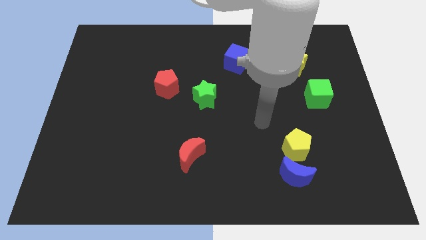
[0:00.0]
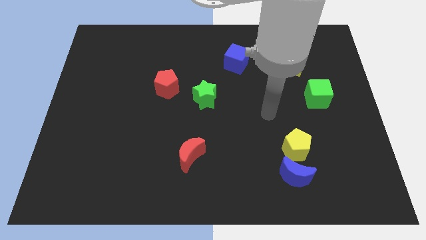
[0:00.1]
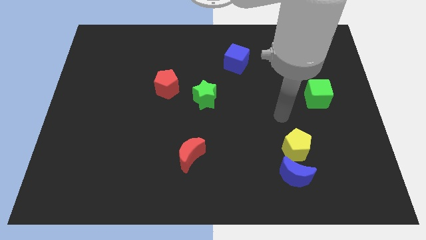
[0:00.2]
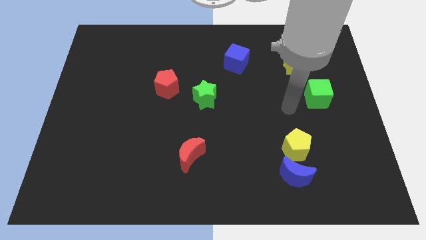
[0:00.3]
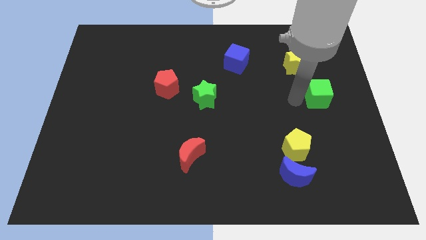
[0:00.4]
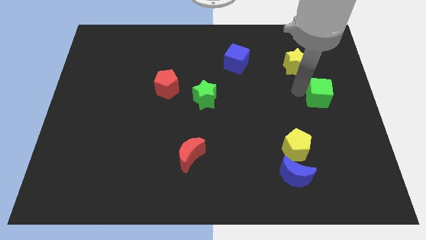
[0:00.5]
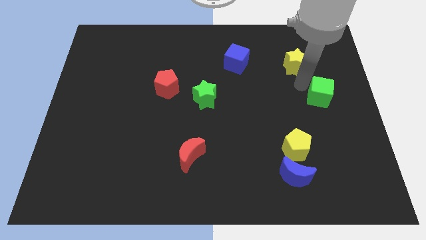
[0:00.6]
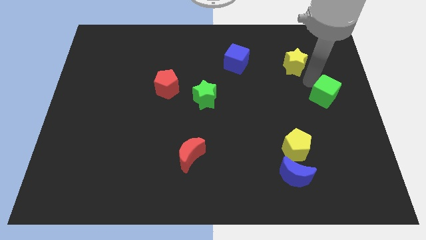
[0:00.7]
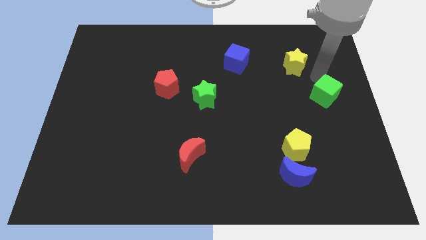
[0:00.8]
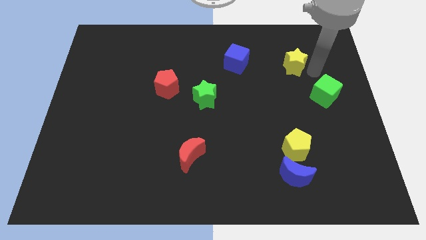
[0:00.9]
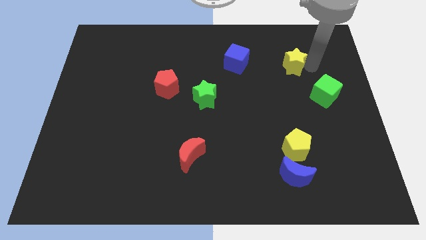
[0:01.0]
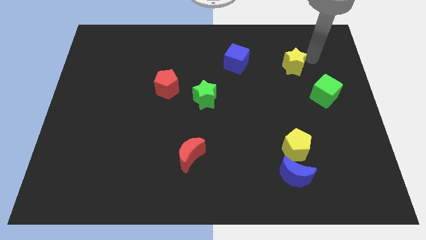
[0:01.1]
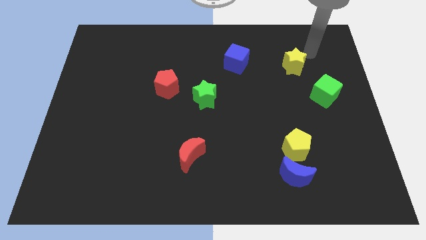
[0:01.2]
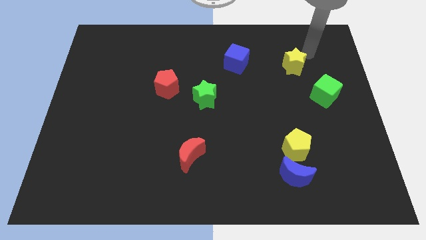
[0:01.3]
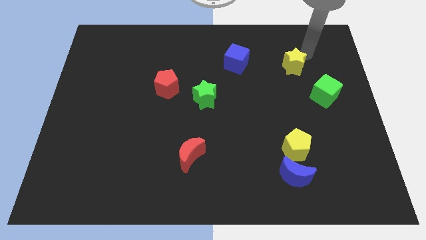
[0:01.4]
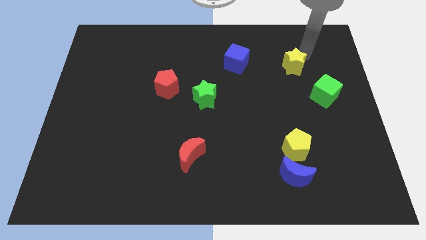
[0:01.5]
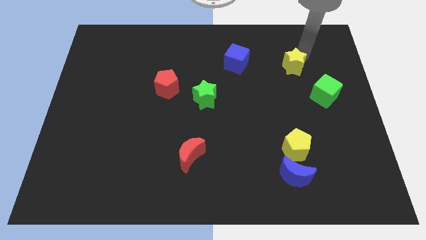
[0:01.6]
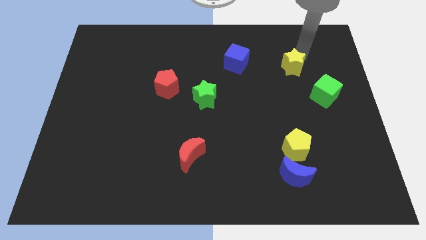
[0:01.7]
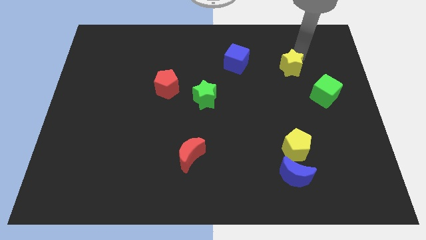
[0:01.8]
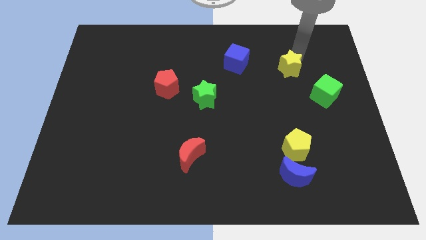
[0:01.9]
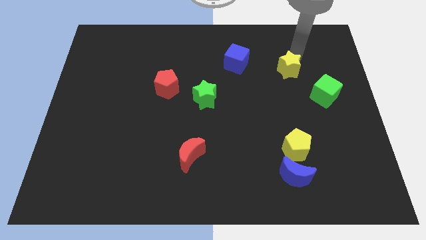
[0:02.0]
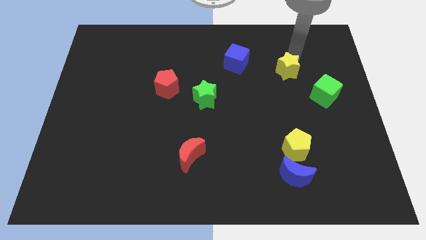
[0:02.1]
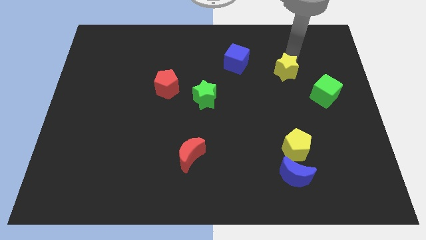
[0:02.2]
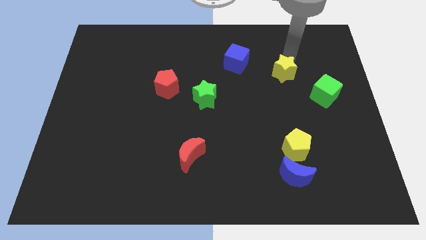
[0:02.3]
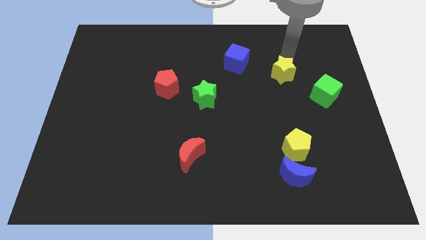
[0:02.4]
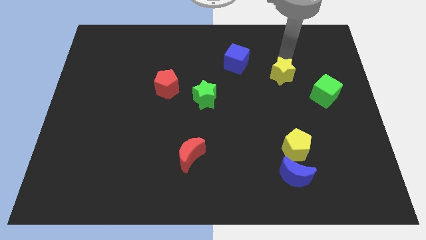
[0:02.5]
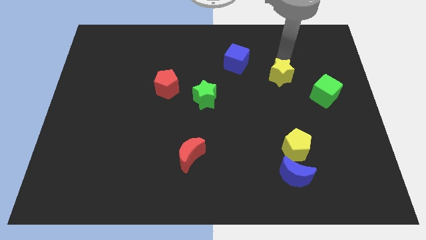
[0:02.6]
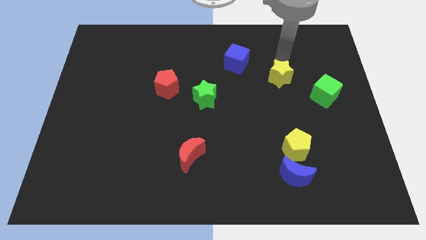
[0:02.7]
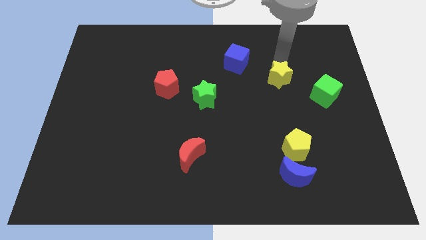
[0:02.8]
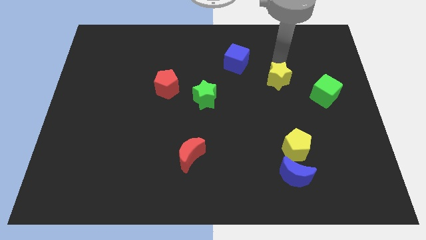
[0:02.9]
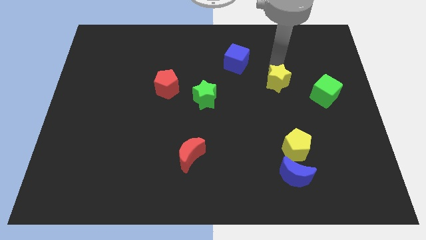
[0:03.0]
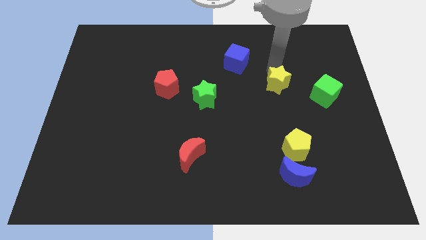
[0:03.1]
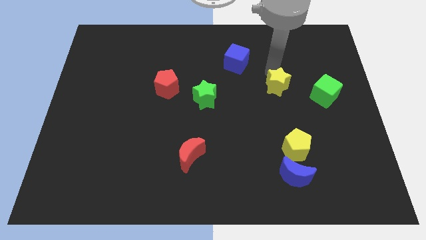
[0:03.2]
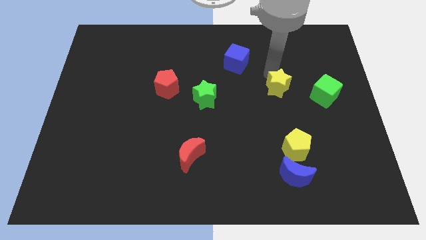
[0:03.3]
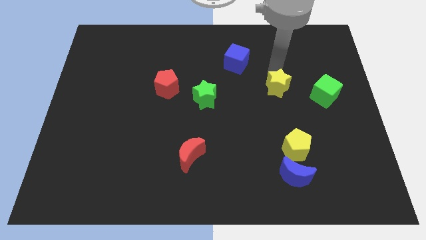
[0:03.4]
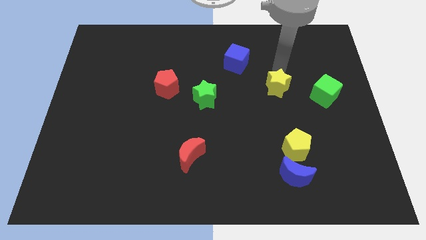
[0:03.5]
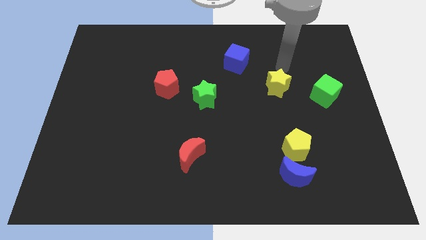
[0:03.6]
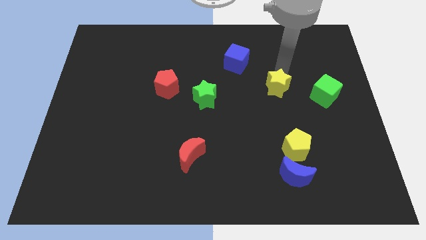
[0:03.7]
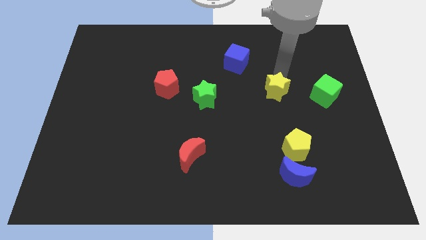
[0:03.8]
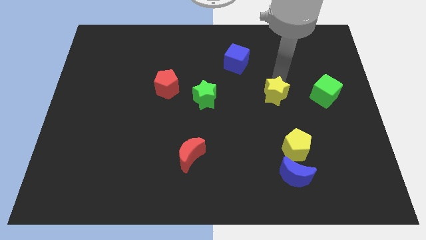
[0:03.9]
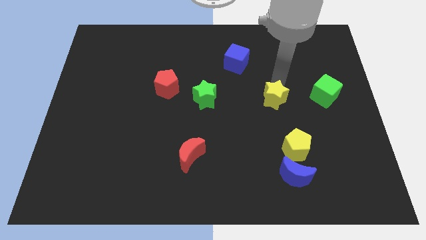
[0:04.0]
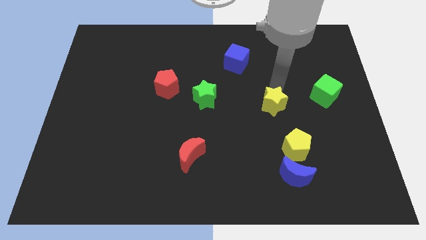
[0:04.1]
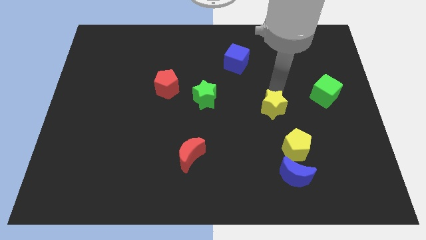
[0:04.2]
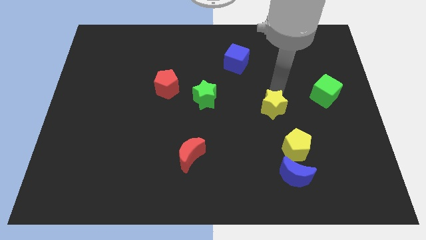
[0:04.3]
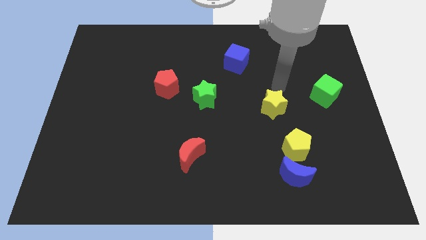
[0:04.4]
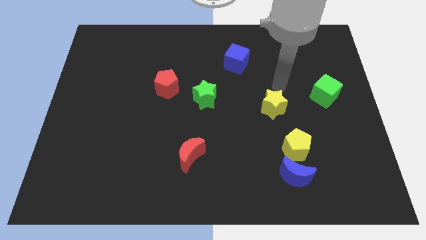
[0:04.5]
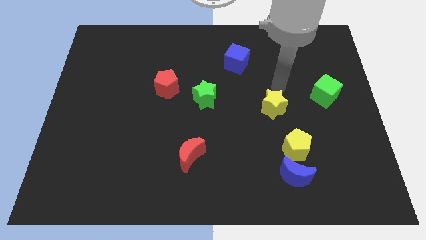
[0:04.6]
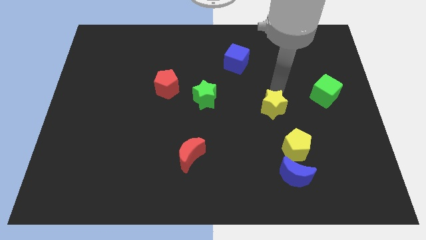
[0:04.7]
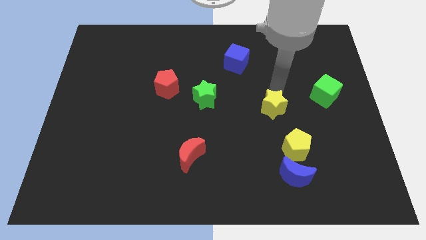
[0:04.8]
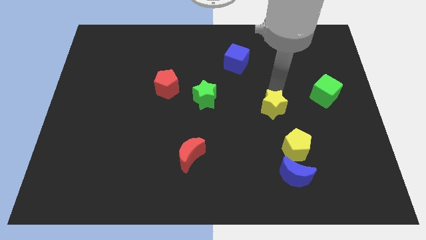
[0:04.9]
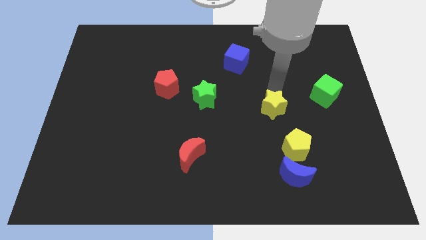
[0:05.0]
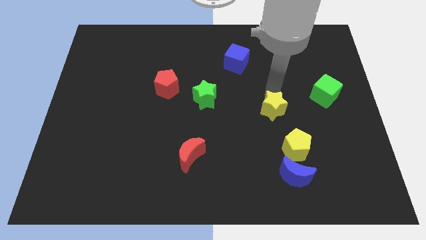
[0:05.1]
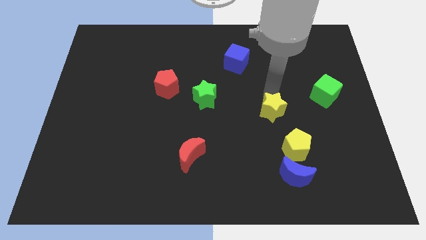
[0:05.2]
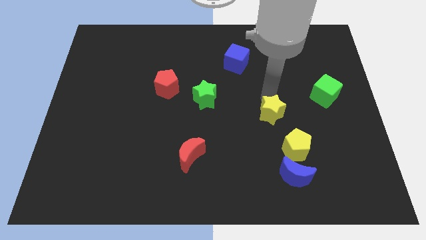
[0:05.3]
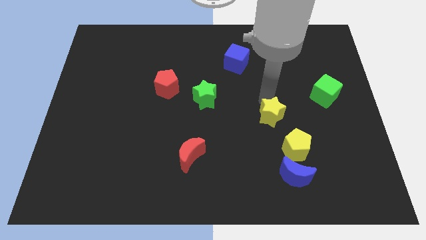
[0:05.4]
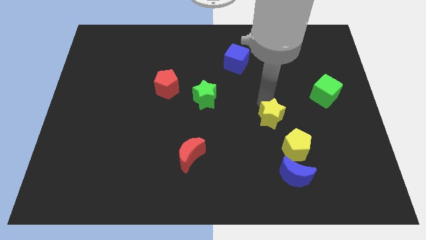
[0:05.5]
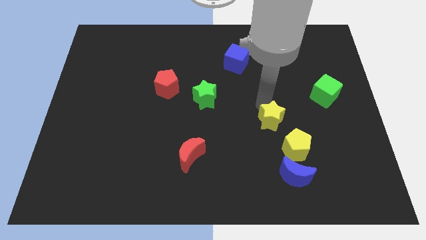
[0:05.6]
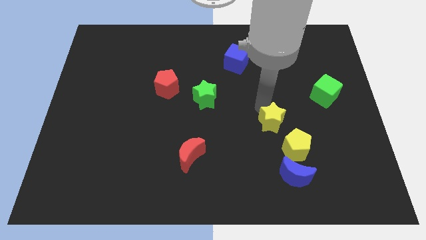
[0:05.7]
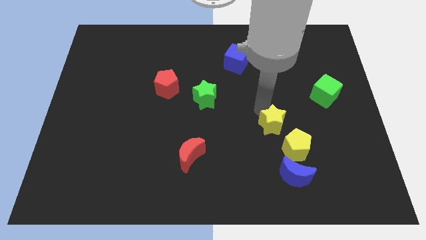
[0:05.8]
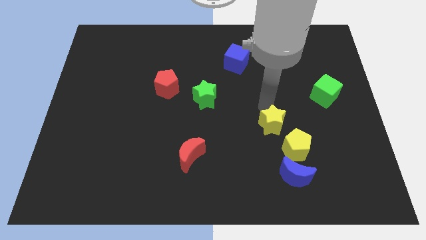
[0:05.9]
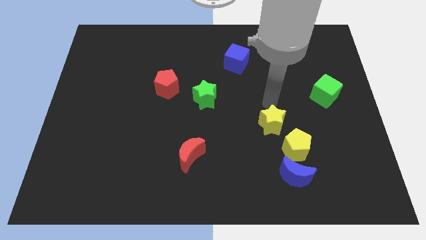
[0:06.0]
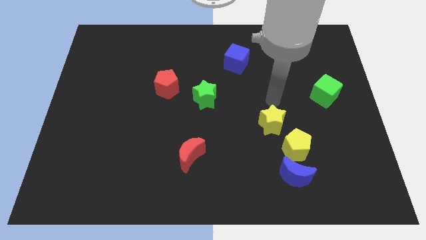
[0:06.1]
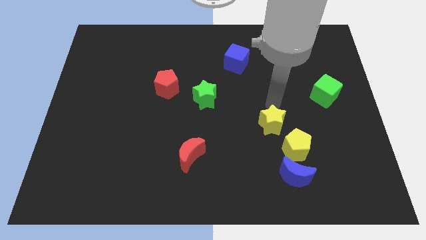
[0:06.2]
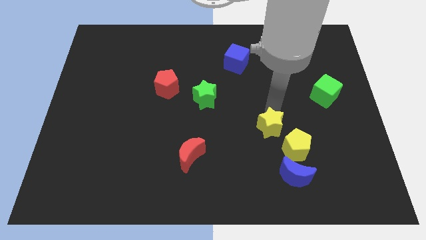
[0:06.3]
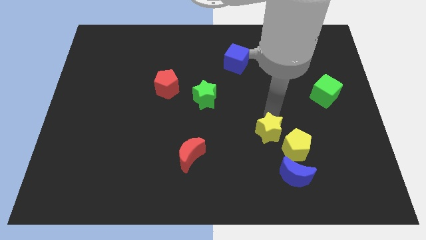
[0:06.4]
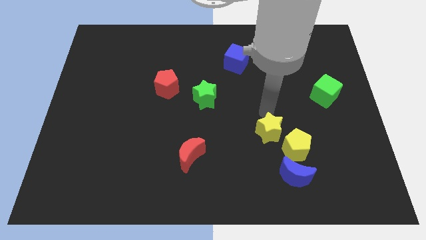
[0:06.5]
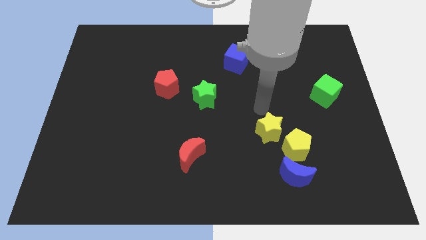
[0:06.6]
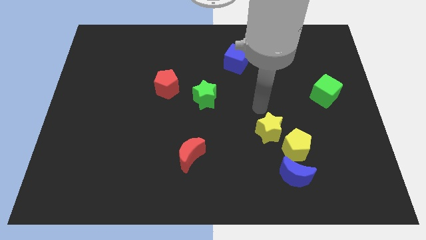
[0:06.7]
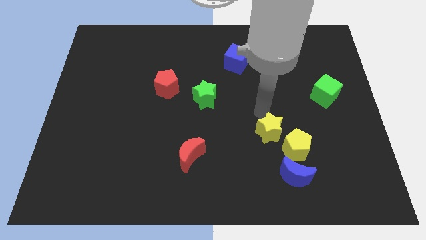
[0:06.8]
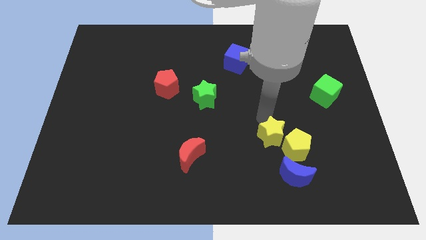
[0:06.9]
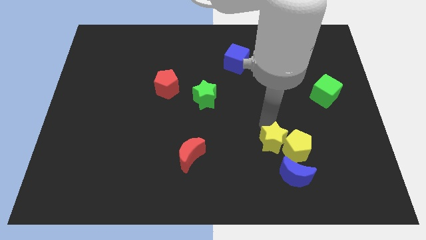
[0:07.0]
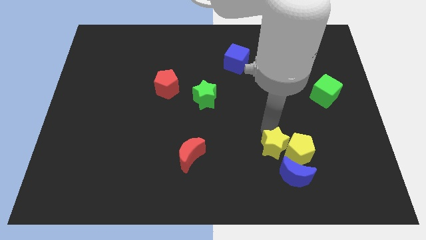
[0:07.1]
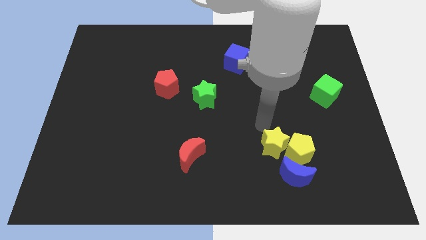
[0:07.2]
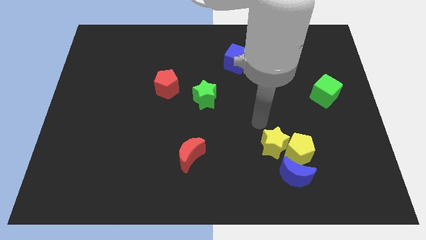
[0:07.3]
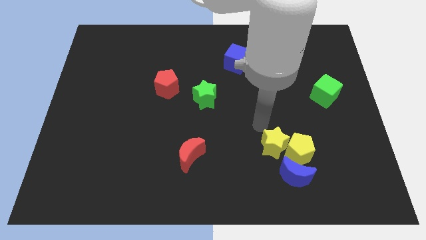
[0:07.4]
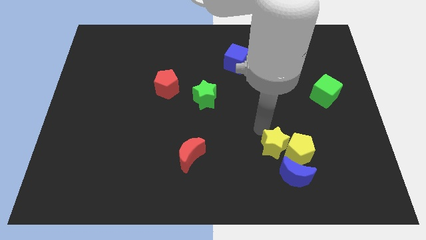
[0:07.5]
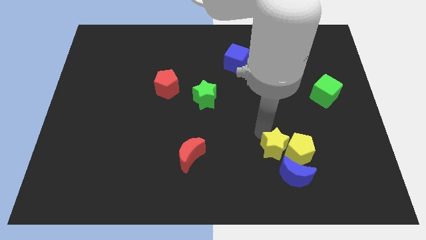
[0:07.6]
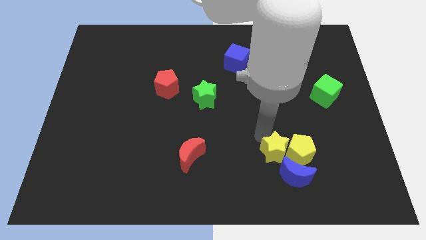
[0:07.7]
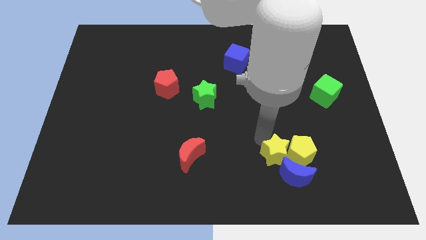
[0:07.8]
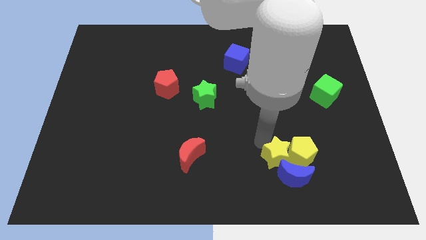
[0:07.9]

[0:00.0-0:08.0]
slide the yellow star close to the blue moon
